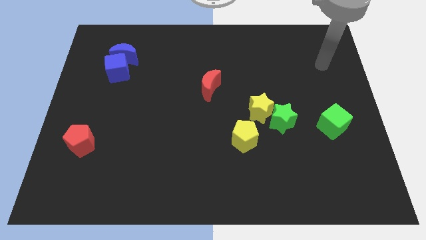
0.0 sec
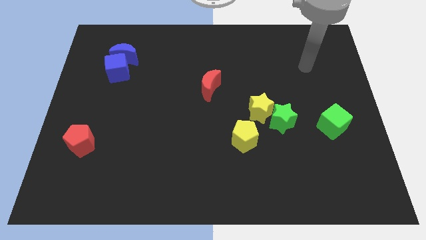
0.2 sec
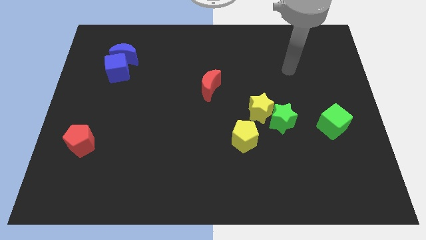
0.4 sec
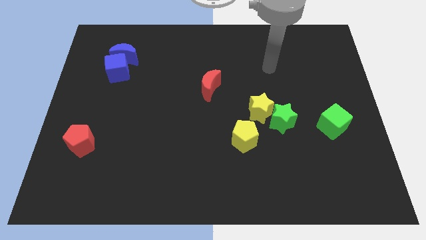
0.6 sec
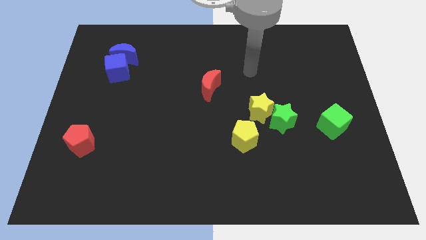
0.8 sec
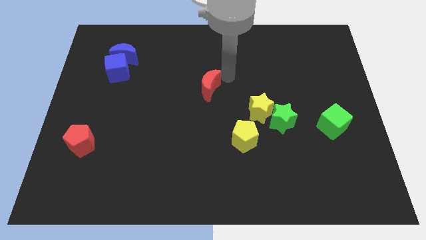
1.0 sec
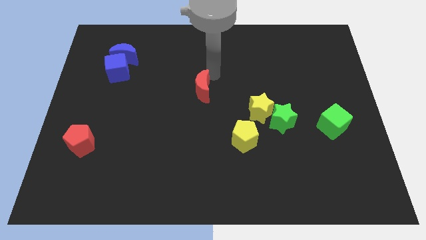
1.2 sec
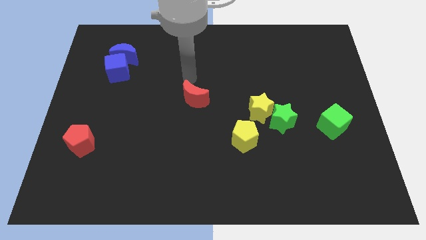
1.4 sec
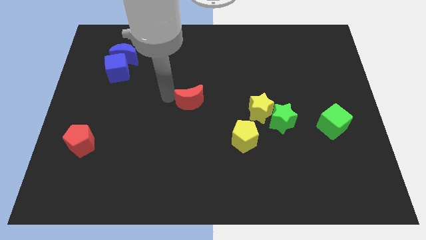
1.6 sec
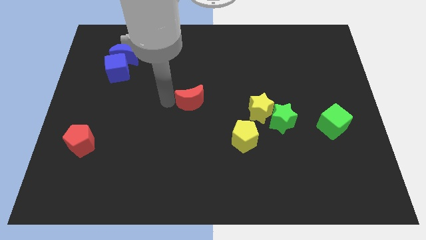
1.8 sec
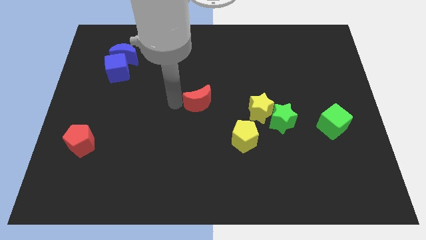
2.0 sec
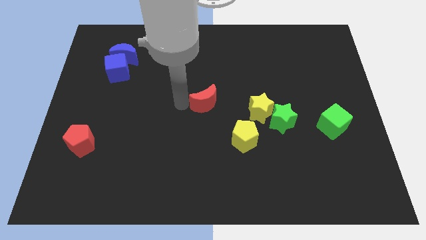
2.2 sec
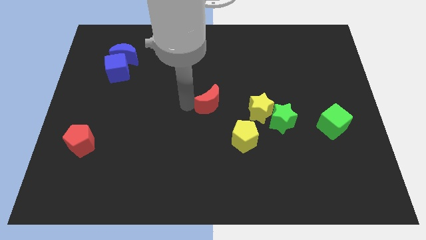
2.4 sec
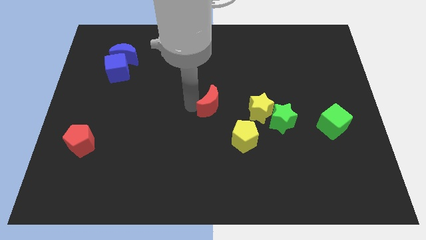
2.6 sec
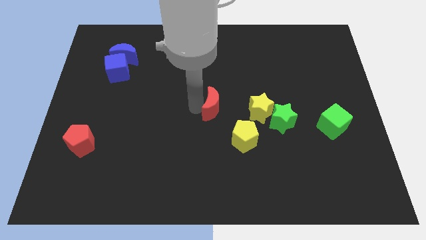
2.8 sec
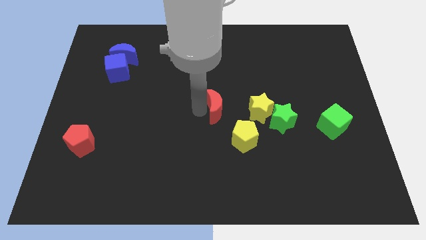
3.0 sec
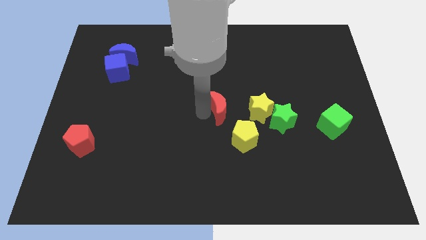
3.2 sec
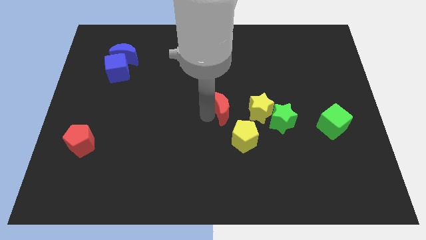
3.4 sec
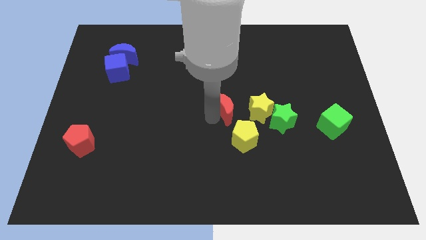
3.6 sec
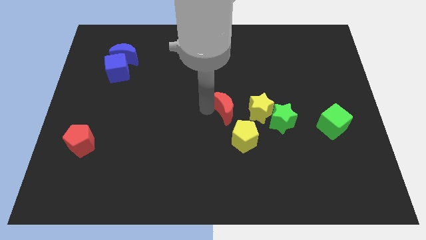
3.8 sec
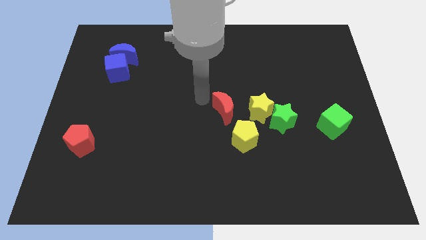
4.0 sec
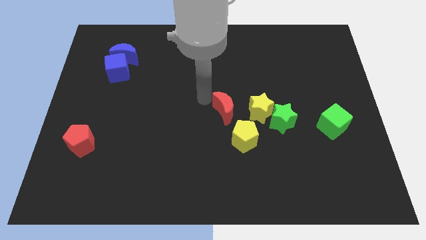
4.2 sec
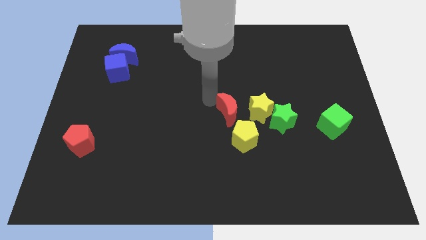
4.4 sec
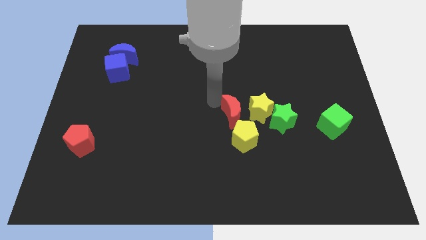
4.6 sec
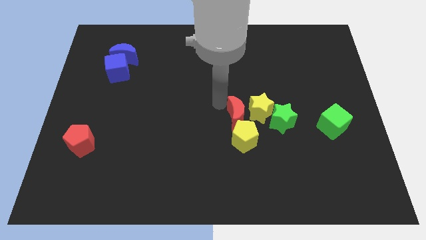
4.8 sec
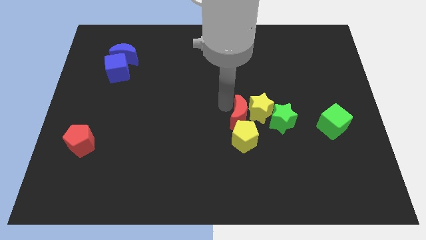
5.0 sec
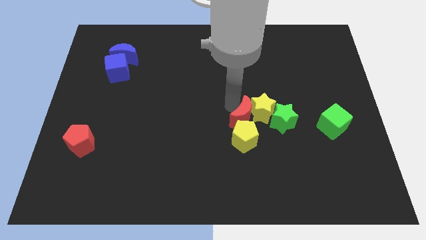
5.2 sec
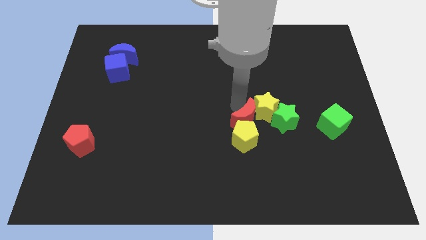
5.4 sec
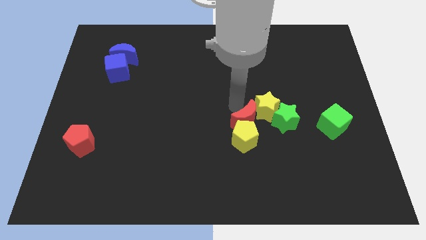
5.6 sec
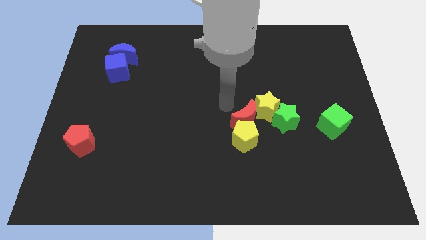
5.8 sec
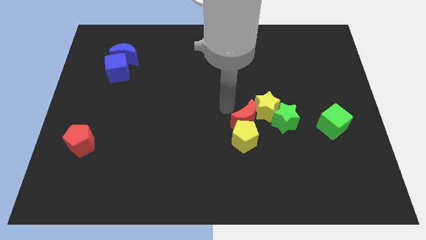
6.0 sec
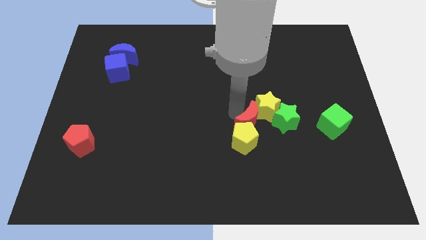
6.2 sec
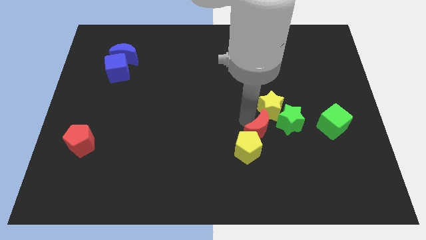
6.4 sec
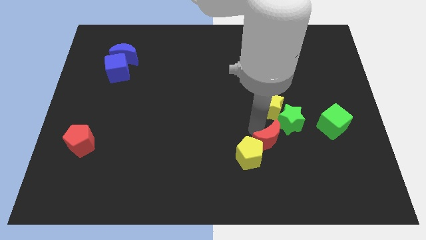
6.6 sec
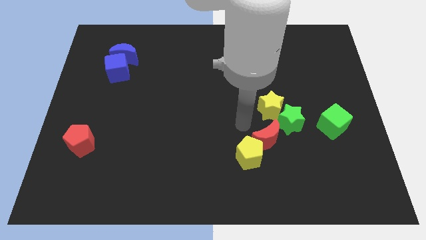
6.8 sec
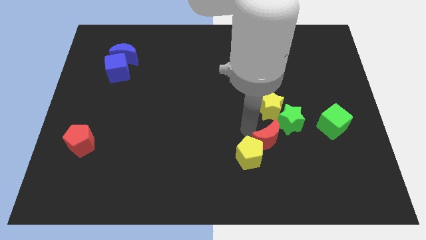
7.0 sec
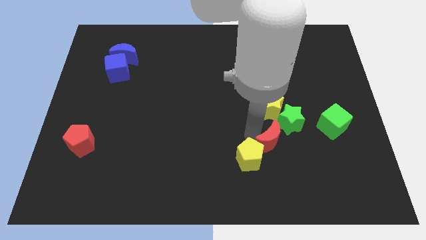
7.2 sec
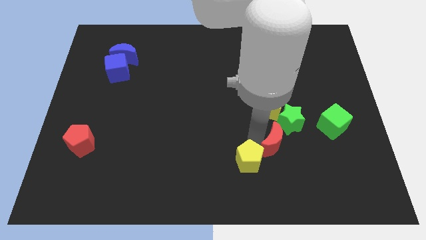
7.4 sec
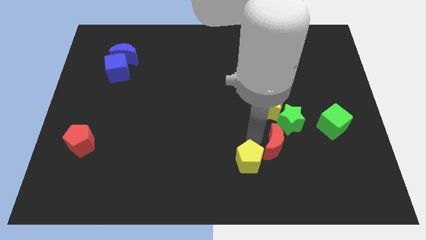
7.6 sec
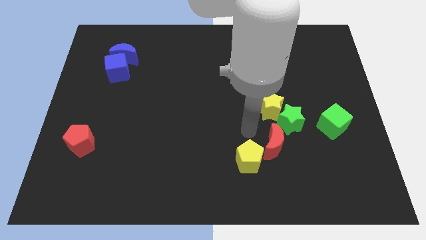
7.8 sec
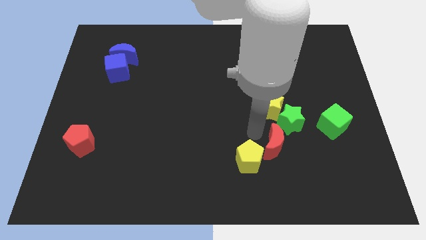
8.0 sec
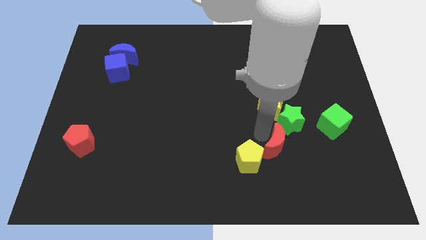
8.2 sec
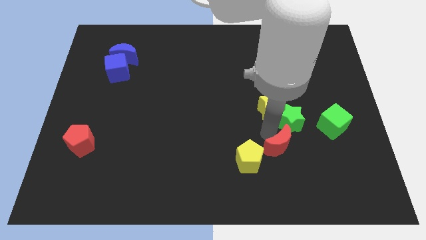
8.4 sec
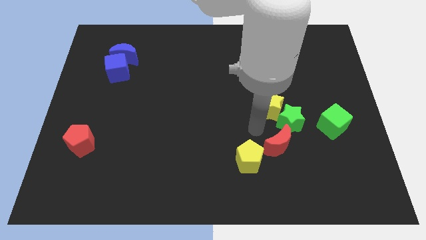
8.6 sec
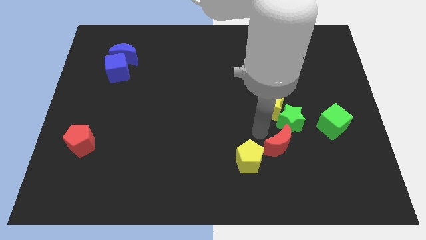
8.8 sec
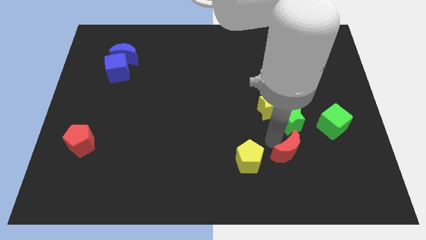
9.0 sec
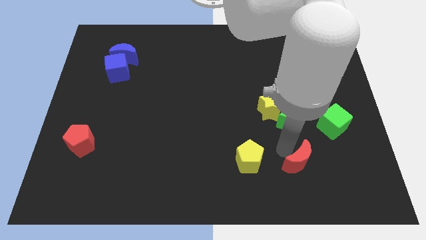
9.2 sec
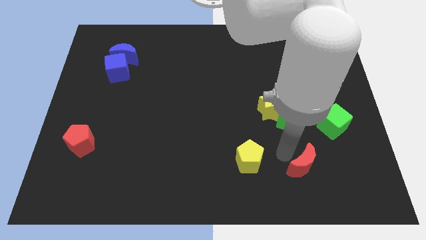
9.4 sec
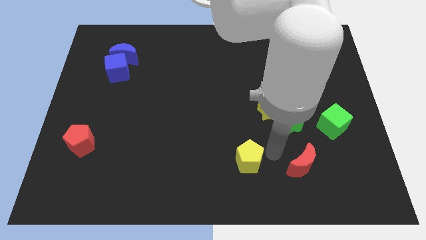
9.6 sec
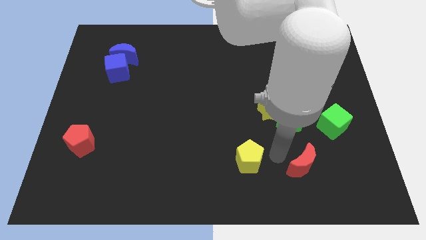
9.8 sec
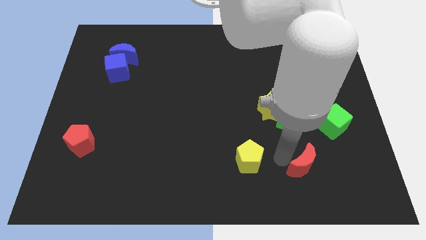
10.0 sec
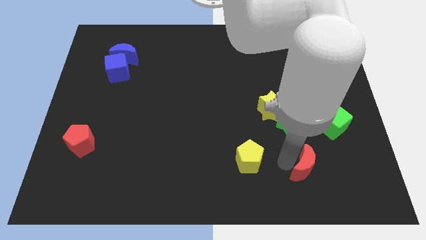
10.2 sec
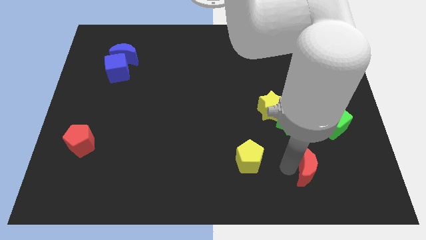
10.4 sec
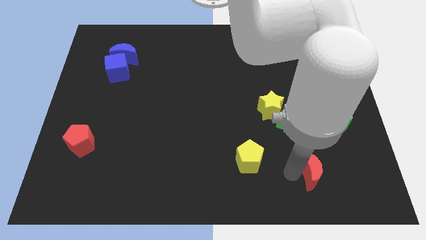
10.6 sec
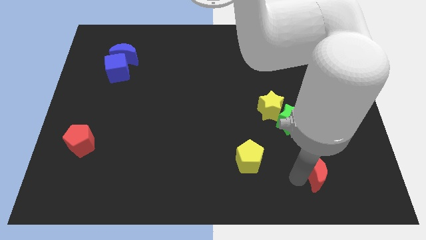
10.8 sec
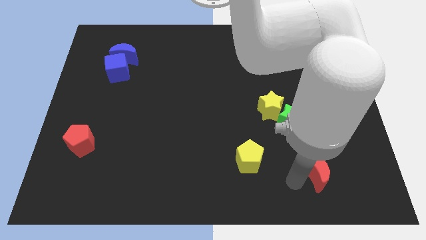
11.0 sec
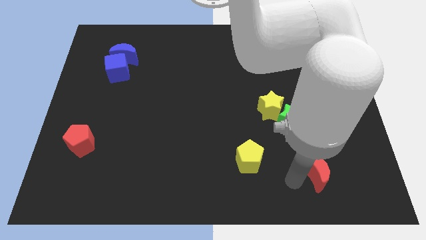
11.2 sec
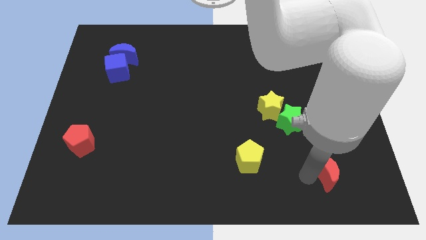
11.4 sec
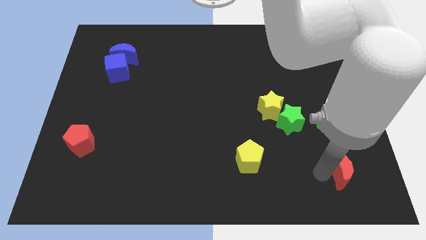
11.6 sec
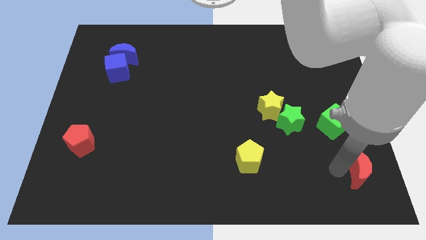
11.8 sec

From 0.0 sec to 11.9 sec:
push the red moon to the bottom right of the board

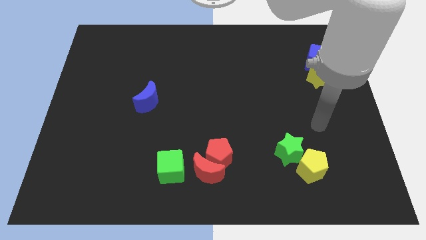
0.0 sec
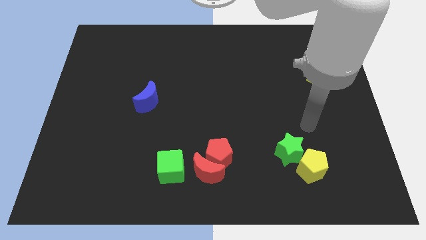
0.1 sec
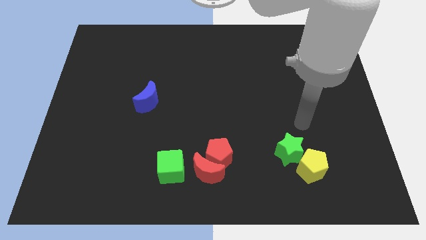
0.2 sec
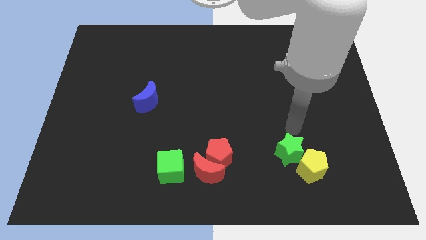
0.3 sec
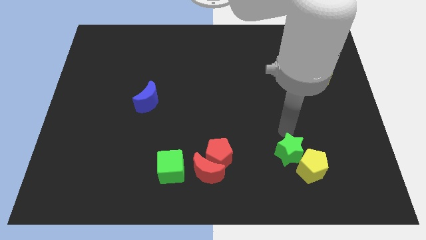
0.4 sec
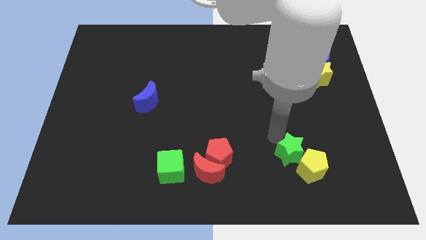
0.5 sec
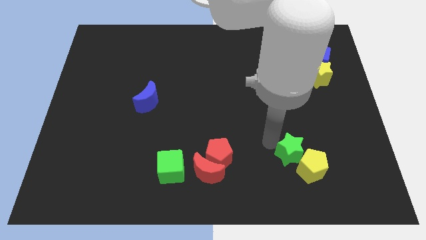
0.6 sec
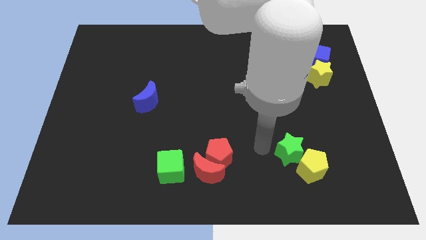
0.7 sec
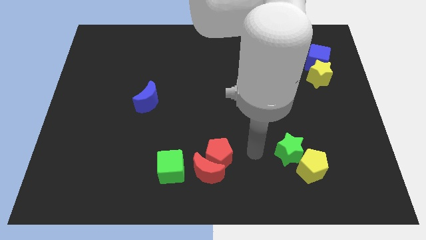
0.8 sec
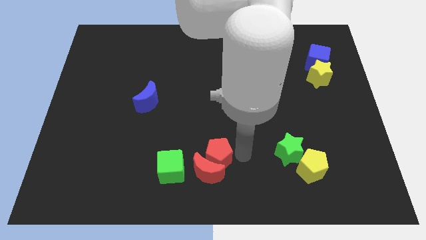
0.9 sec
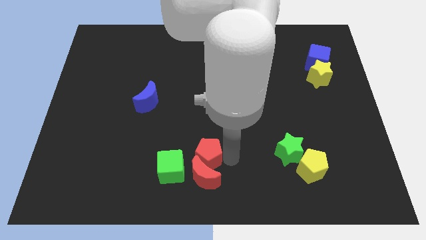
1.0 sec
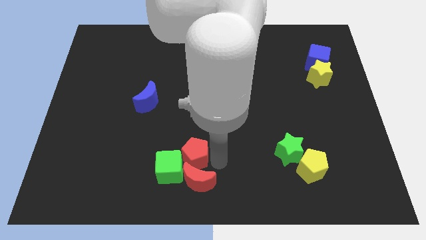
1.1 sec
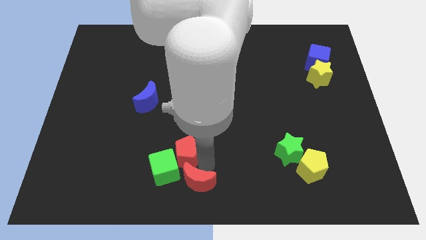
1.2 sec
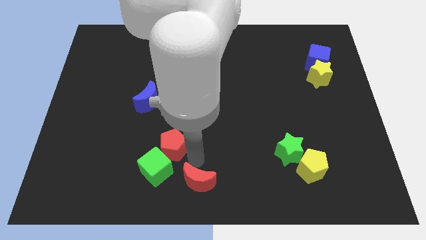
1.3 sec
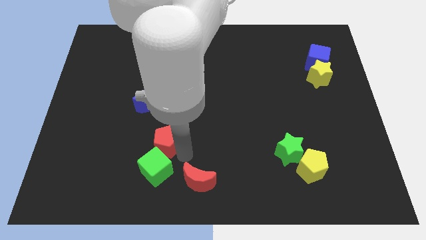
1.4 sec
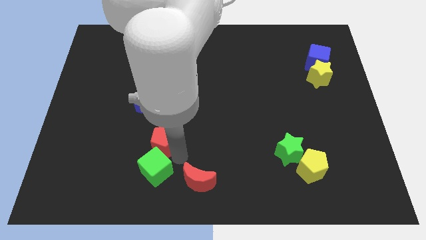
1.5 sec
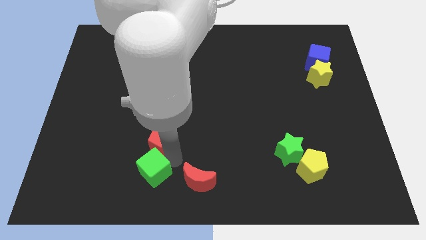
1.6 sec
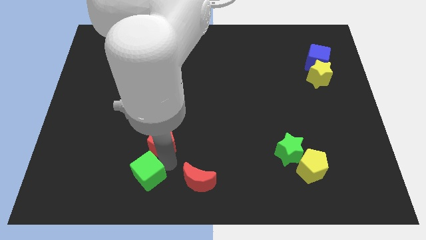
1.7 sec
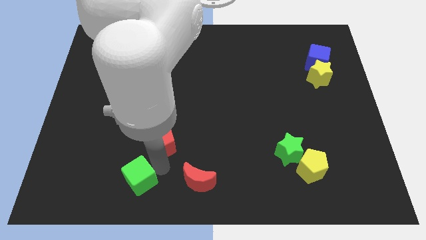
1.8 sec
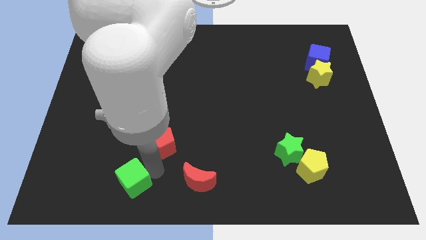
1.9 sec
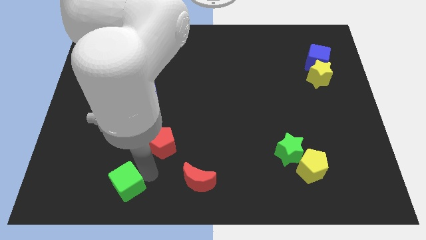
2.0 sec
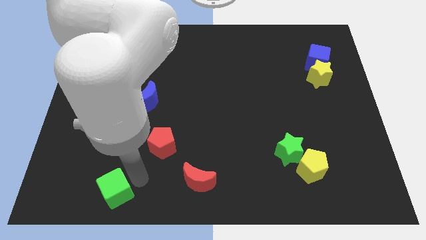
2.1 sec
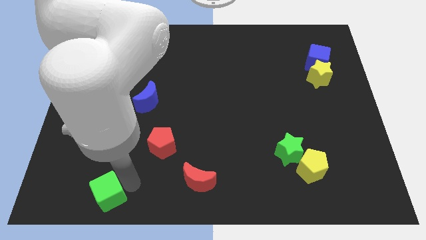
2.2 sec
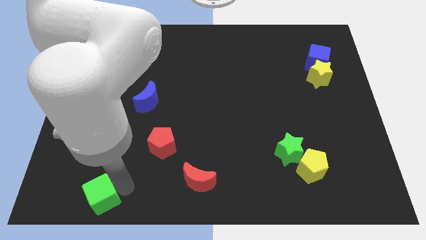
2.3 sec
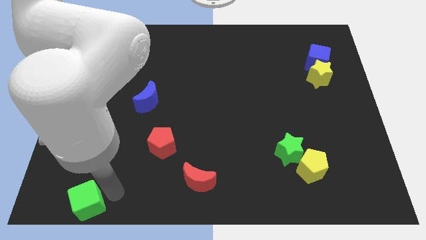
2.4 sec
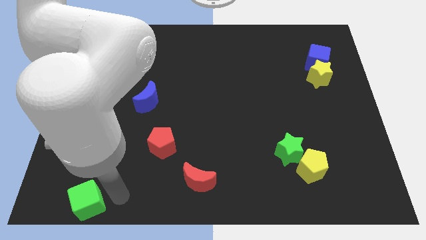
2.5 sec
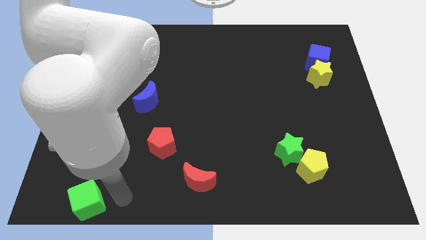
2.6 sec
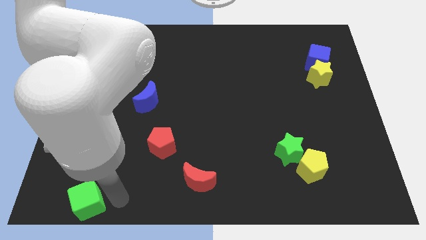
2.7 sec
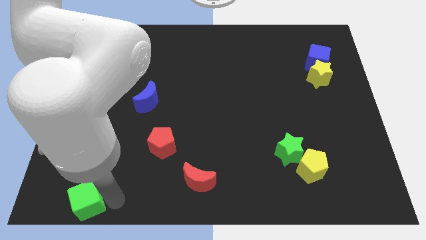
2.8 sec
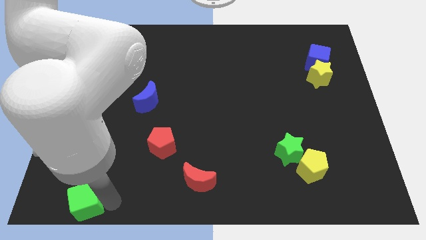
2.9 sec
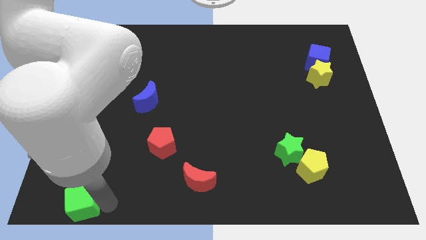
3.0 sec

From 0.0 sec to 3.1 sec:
push the green cube to the lower left corner
